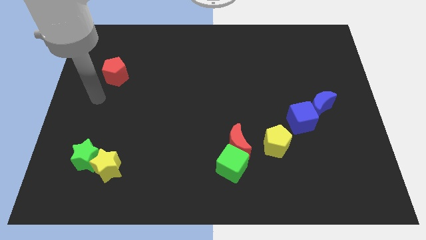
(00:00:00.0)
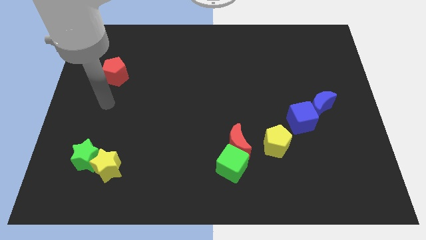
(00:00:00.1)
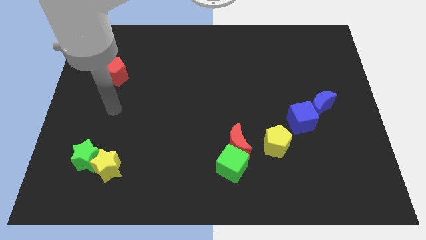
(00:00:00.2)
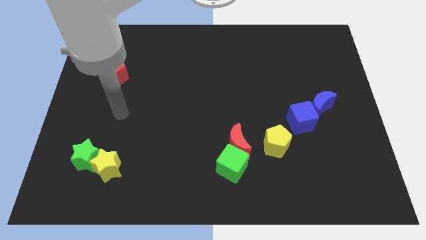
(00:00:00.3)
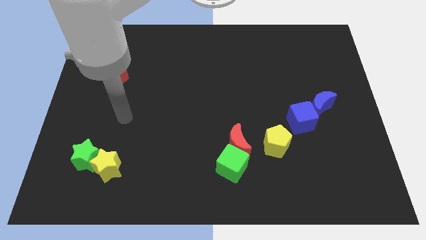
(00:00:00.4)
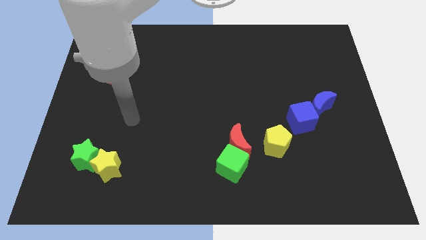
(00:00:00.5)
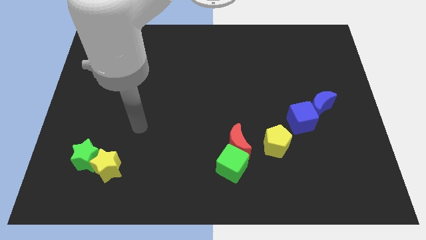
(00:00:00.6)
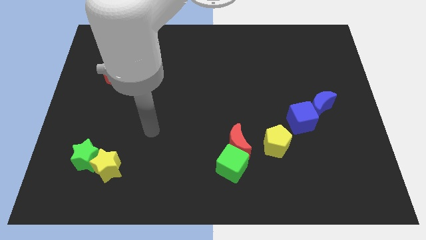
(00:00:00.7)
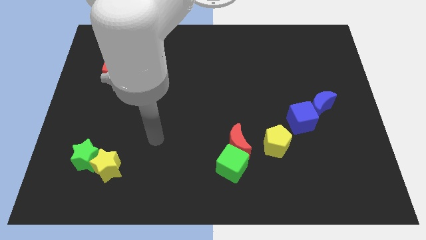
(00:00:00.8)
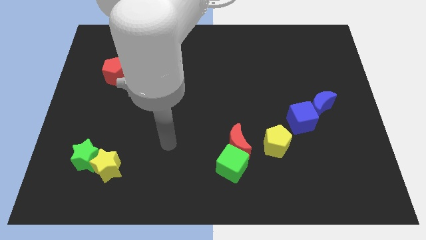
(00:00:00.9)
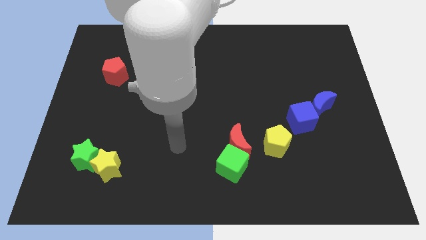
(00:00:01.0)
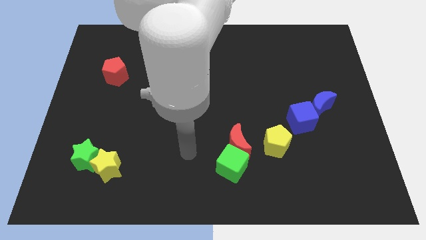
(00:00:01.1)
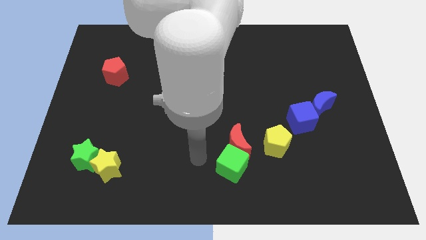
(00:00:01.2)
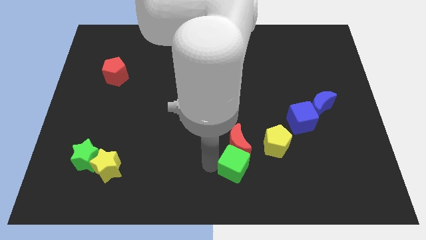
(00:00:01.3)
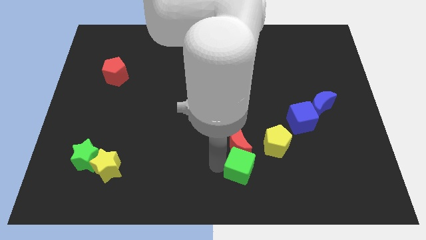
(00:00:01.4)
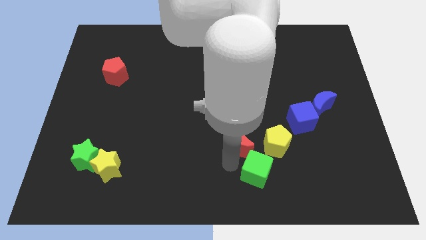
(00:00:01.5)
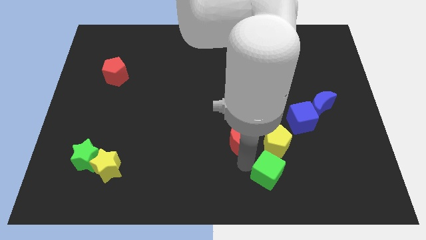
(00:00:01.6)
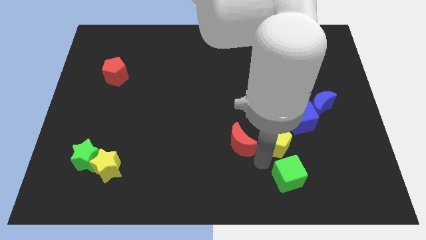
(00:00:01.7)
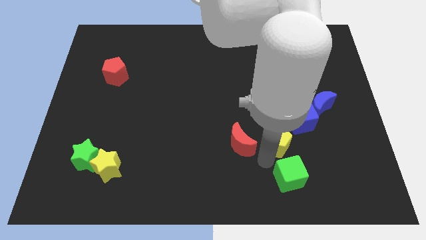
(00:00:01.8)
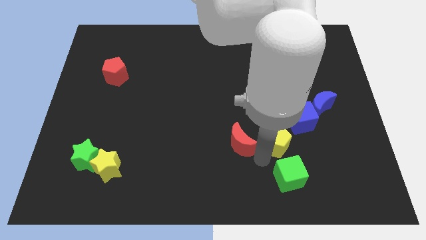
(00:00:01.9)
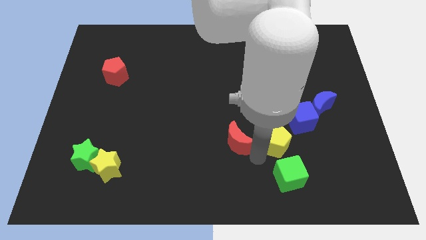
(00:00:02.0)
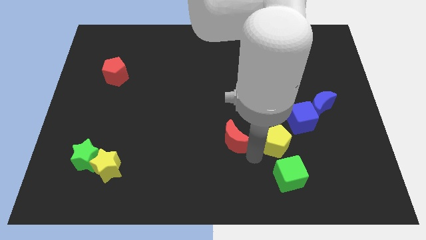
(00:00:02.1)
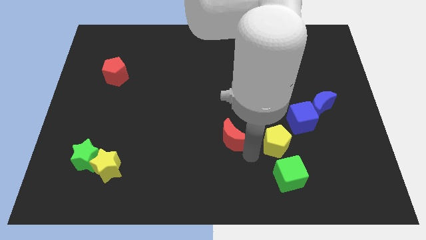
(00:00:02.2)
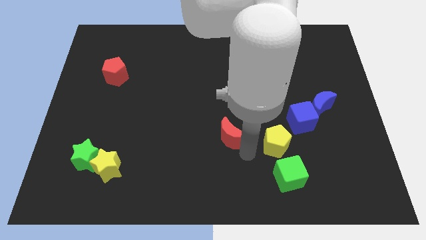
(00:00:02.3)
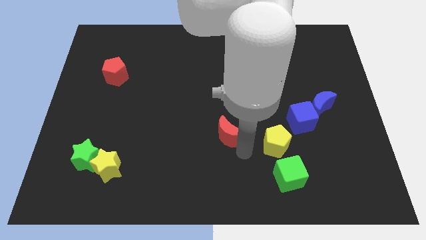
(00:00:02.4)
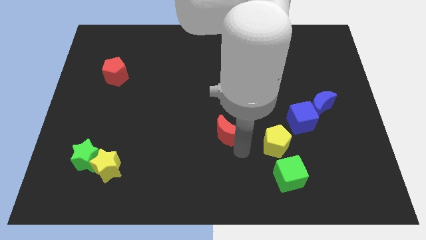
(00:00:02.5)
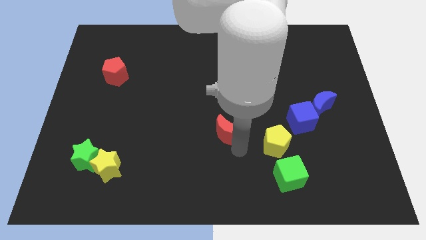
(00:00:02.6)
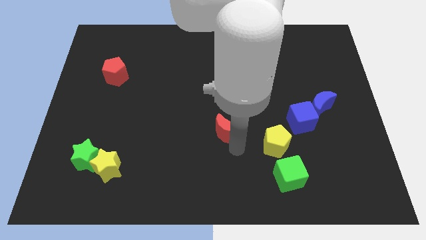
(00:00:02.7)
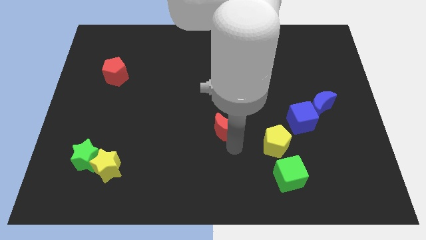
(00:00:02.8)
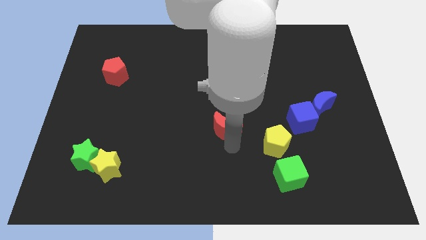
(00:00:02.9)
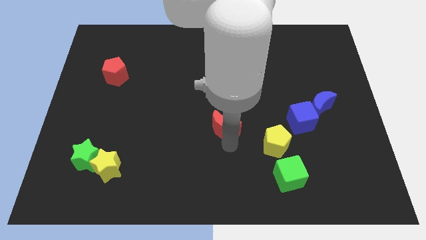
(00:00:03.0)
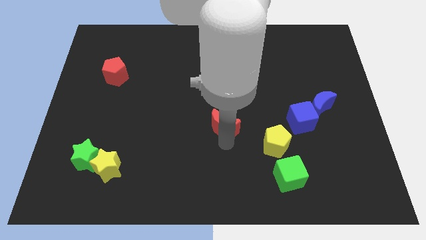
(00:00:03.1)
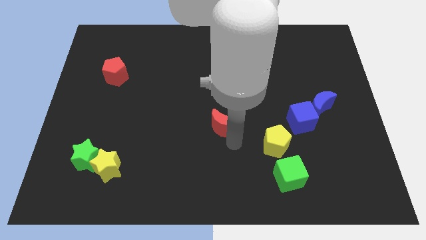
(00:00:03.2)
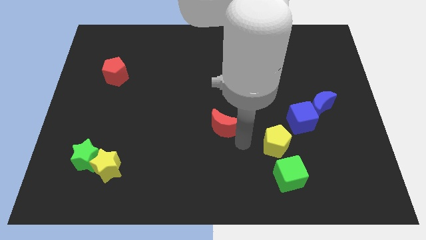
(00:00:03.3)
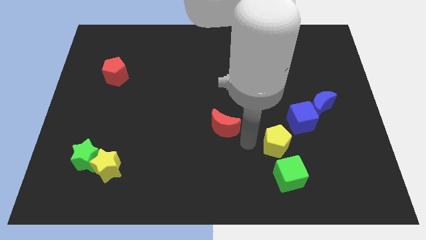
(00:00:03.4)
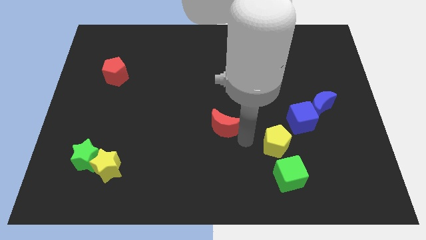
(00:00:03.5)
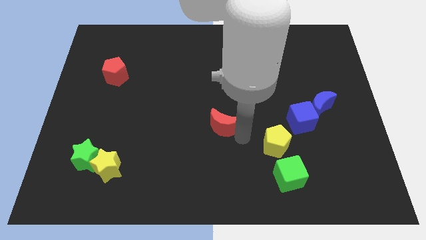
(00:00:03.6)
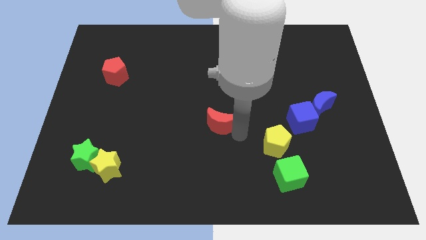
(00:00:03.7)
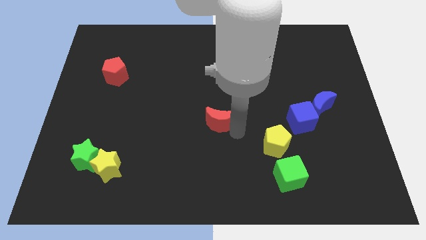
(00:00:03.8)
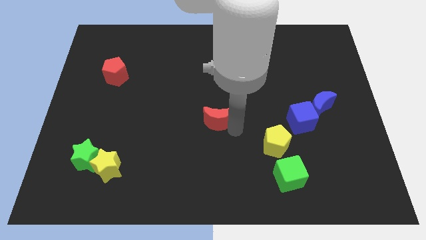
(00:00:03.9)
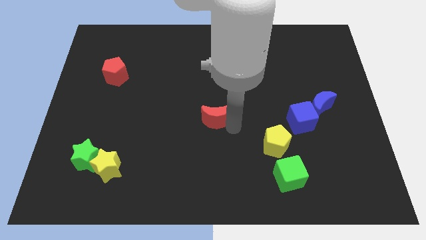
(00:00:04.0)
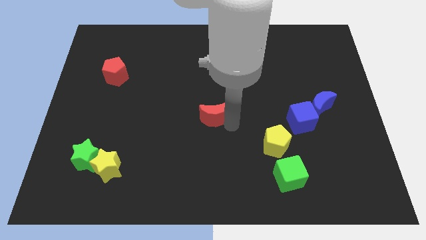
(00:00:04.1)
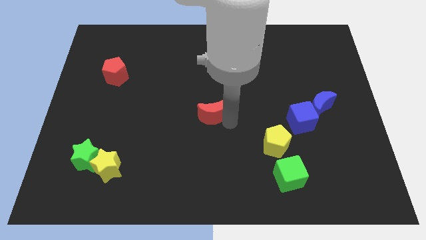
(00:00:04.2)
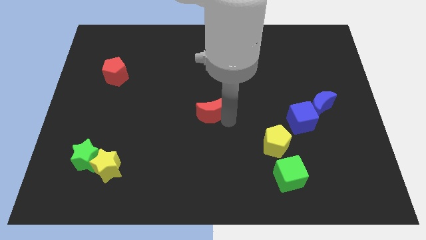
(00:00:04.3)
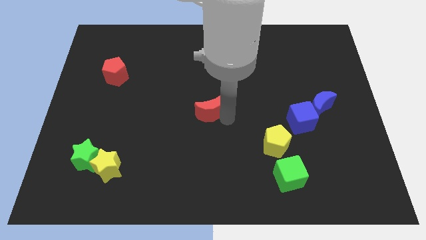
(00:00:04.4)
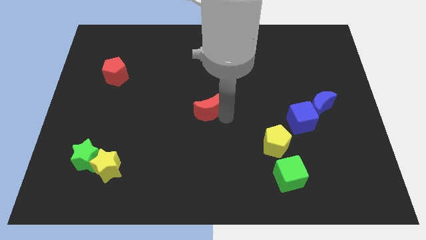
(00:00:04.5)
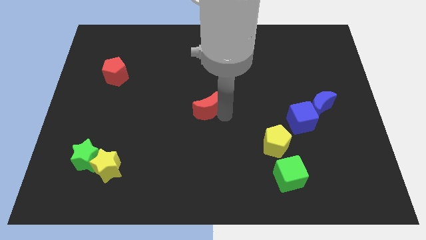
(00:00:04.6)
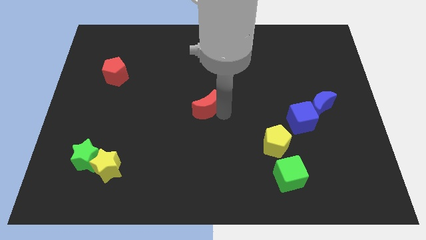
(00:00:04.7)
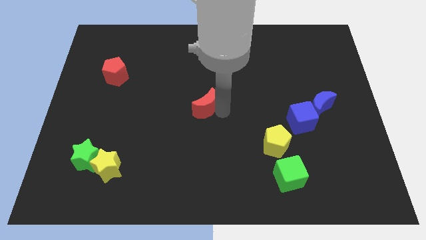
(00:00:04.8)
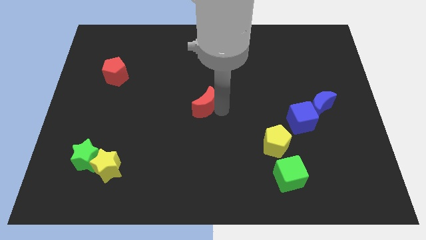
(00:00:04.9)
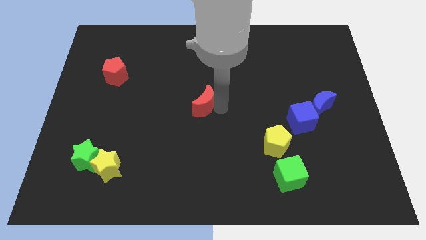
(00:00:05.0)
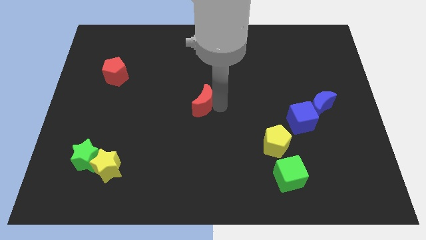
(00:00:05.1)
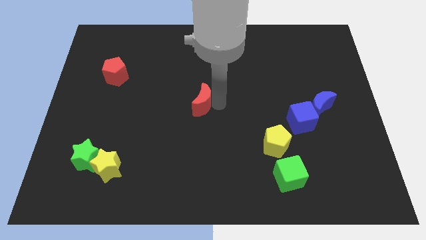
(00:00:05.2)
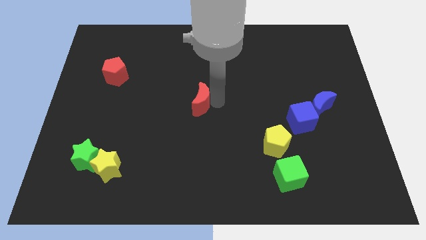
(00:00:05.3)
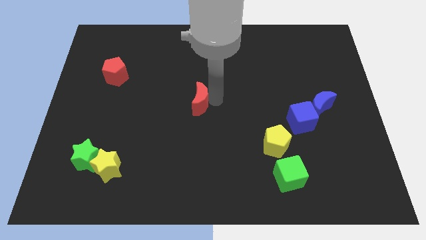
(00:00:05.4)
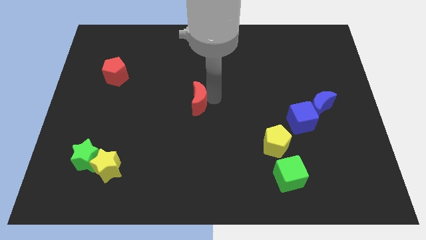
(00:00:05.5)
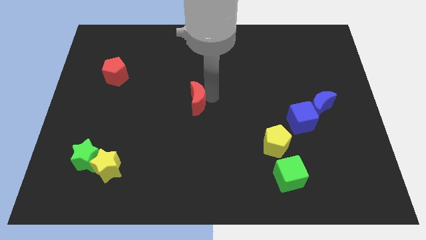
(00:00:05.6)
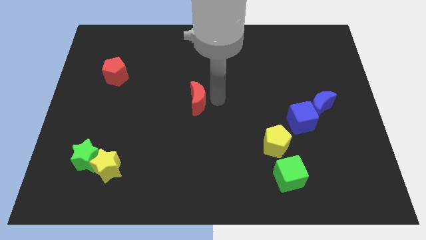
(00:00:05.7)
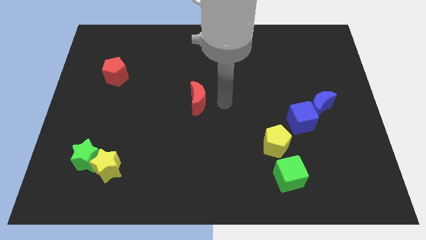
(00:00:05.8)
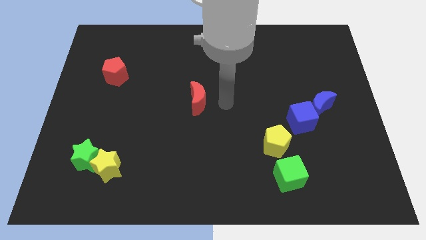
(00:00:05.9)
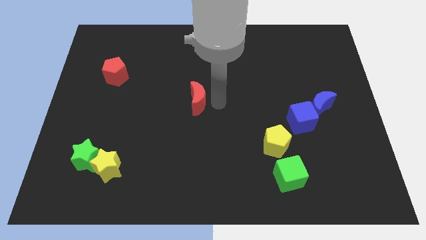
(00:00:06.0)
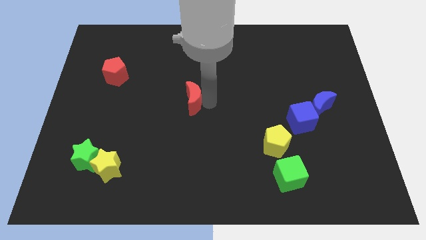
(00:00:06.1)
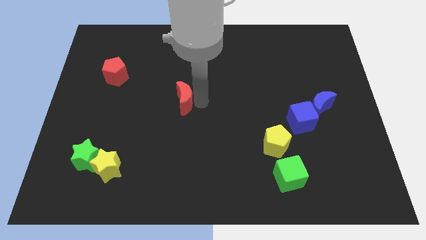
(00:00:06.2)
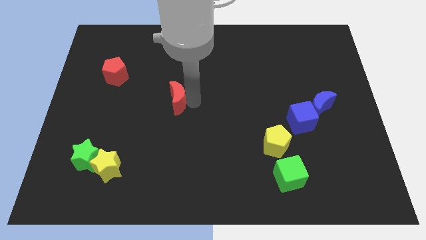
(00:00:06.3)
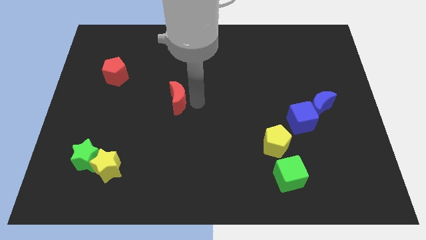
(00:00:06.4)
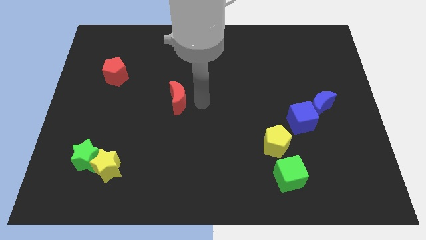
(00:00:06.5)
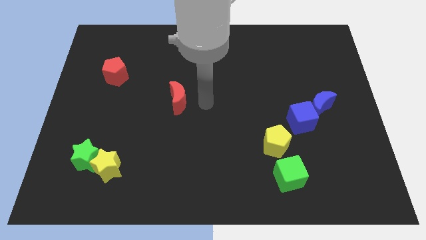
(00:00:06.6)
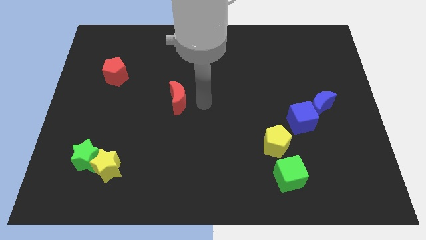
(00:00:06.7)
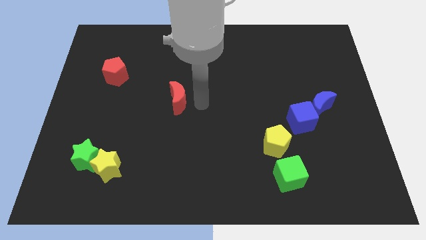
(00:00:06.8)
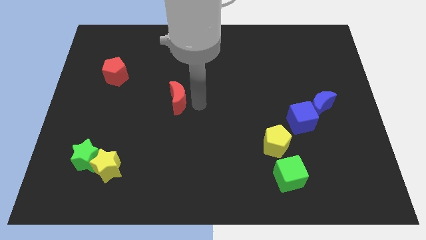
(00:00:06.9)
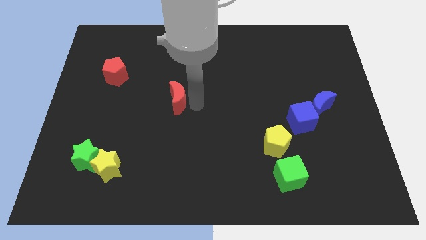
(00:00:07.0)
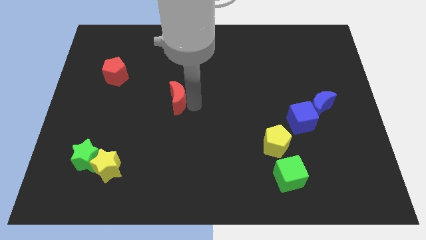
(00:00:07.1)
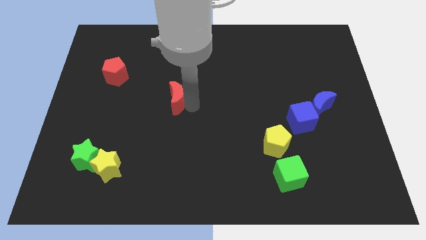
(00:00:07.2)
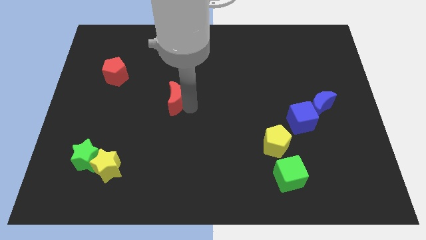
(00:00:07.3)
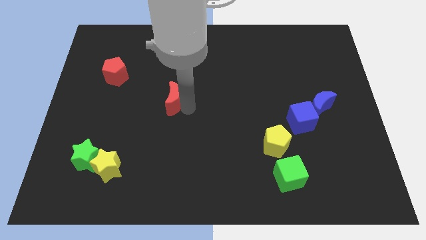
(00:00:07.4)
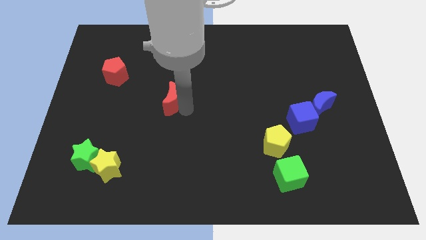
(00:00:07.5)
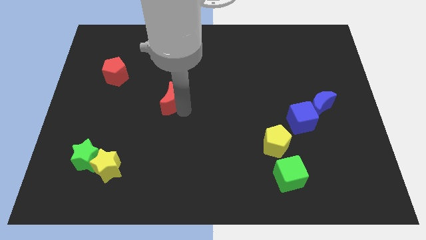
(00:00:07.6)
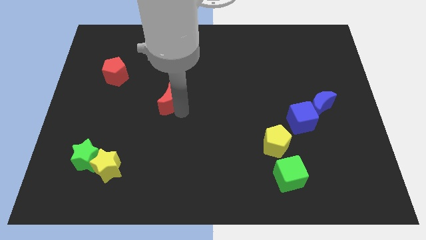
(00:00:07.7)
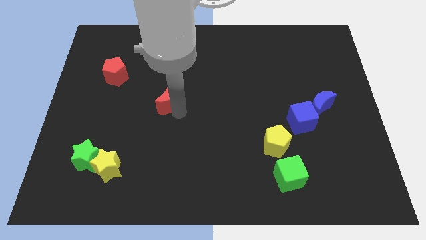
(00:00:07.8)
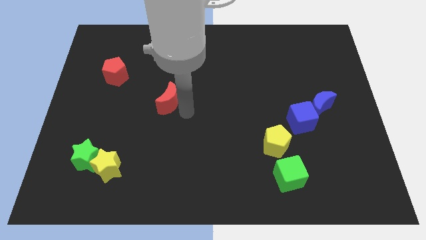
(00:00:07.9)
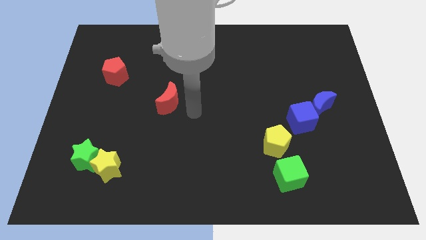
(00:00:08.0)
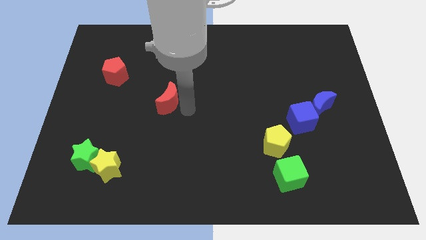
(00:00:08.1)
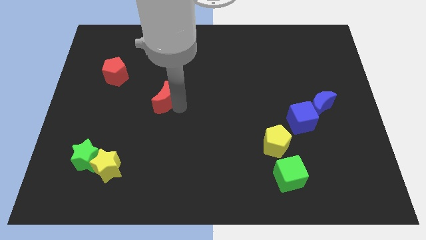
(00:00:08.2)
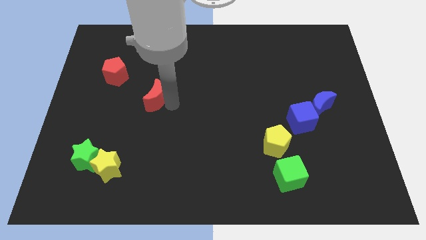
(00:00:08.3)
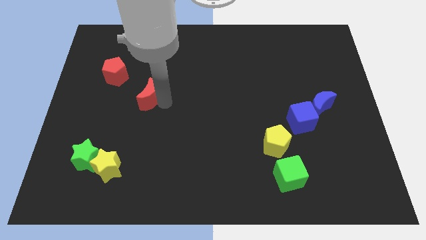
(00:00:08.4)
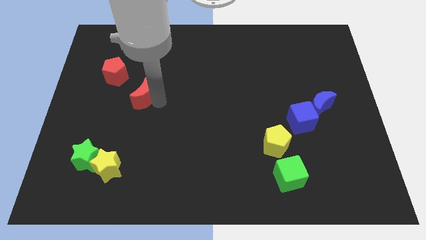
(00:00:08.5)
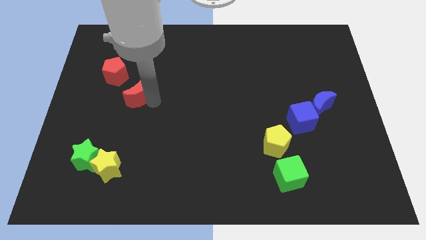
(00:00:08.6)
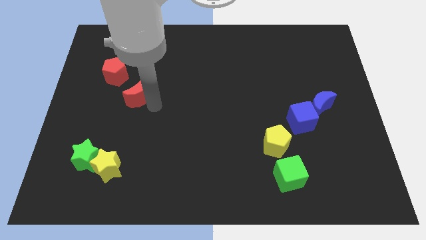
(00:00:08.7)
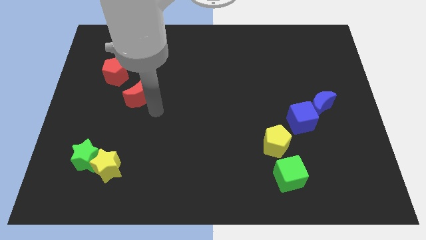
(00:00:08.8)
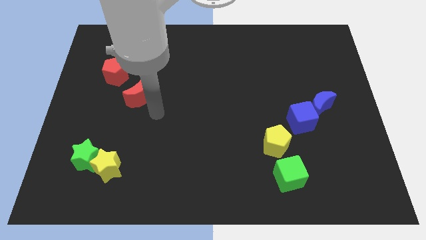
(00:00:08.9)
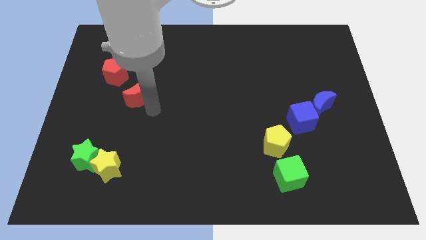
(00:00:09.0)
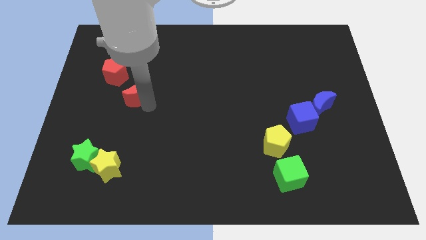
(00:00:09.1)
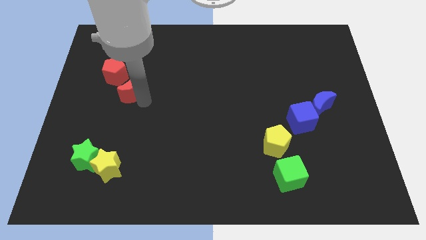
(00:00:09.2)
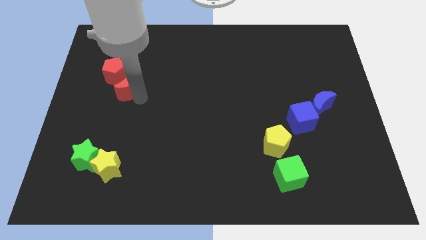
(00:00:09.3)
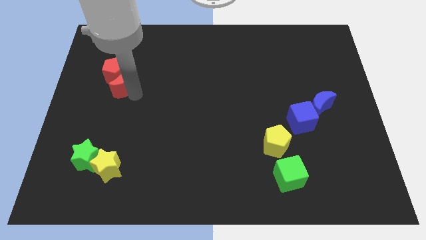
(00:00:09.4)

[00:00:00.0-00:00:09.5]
slide the red moon towards the red pentagon
